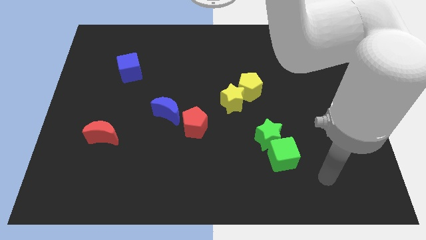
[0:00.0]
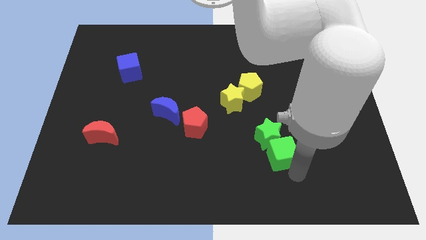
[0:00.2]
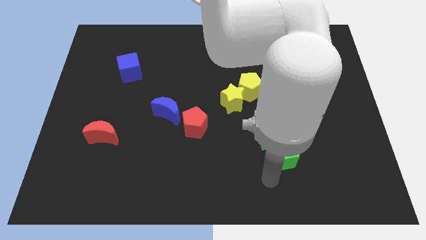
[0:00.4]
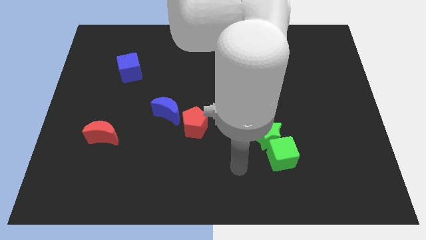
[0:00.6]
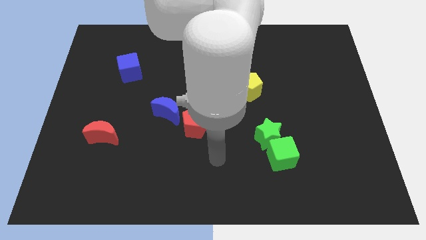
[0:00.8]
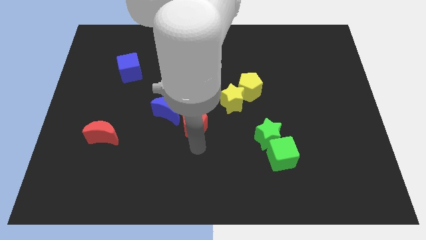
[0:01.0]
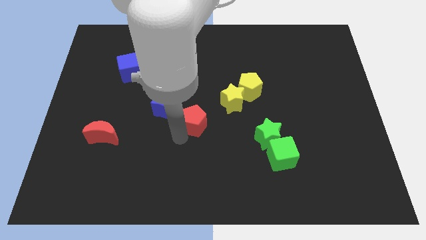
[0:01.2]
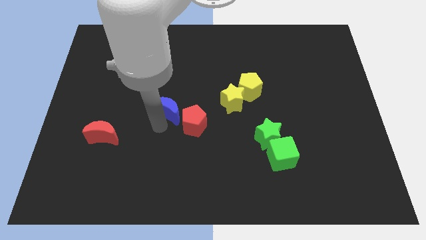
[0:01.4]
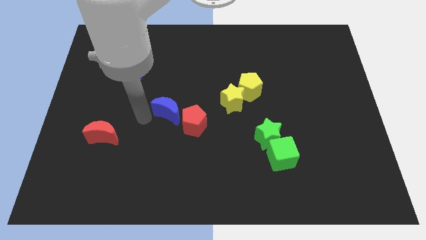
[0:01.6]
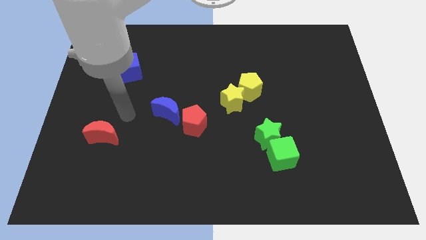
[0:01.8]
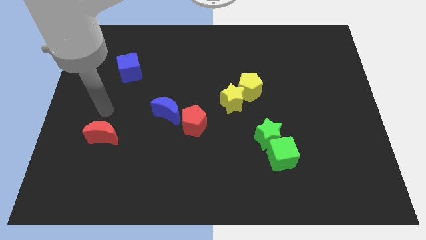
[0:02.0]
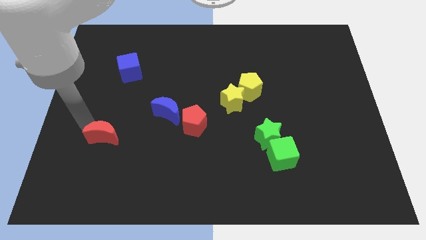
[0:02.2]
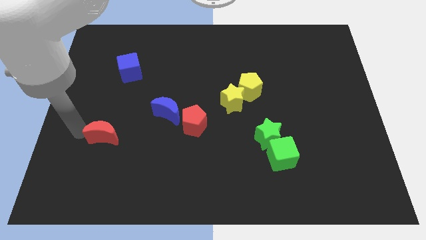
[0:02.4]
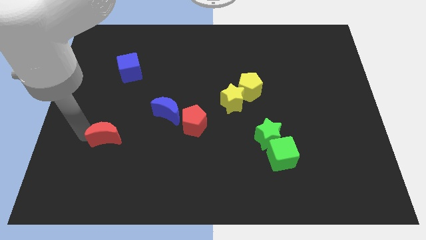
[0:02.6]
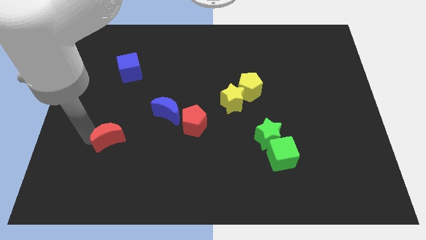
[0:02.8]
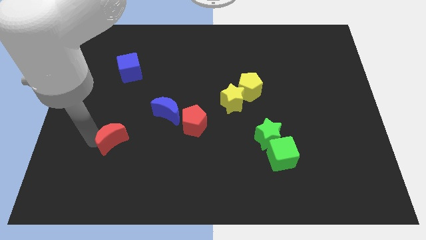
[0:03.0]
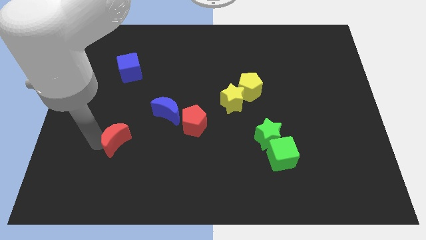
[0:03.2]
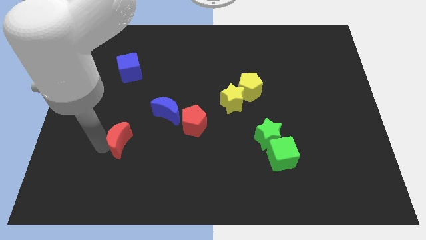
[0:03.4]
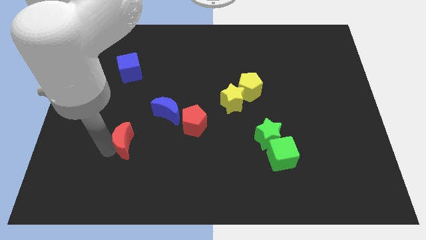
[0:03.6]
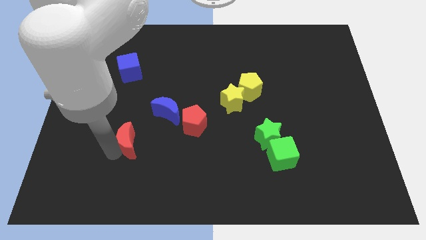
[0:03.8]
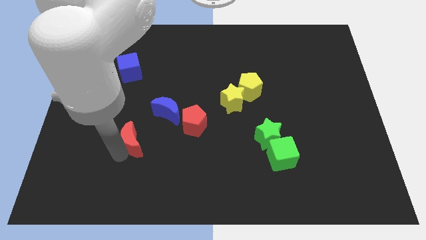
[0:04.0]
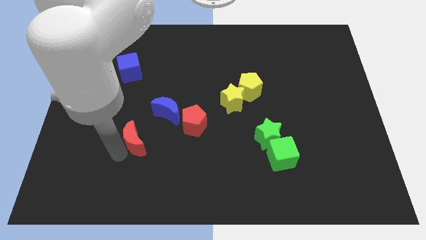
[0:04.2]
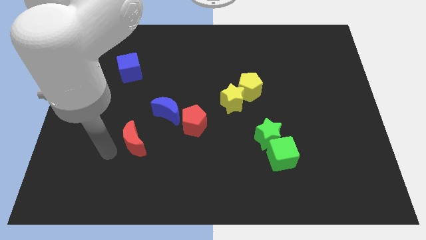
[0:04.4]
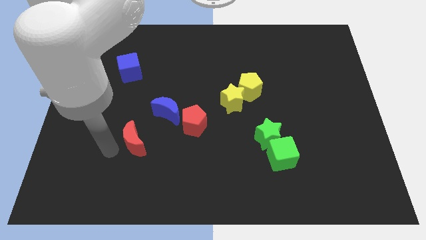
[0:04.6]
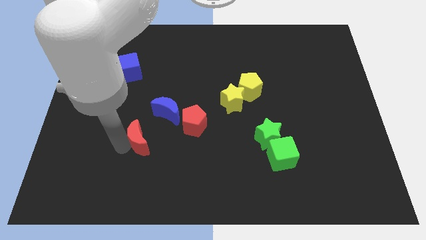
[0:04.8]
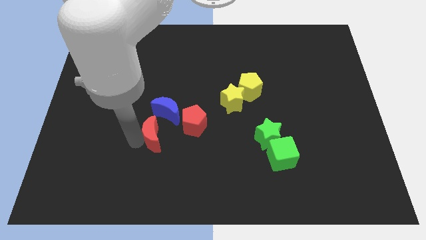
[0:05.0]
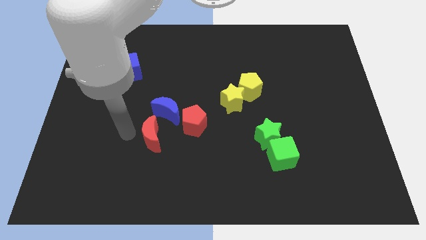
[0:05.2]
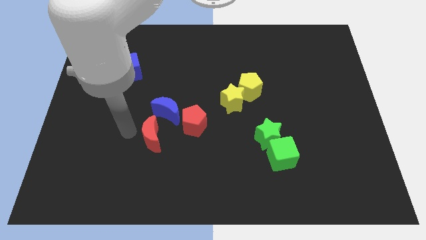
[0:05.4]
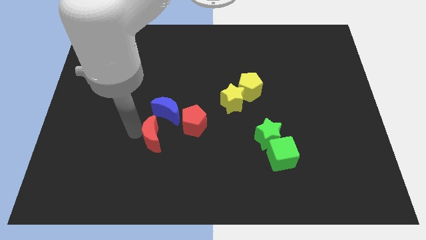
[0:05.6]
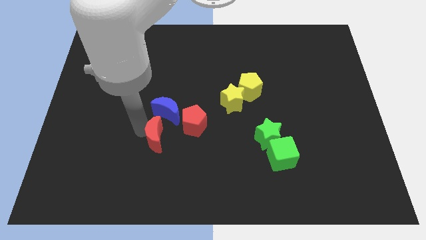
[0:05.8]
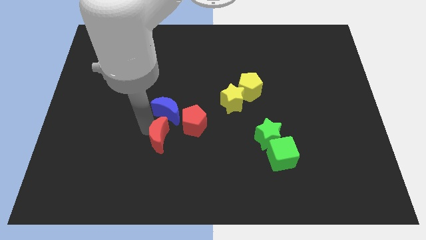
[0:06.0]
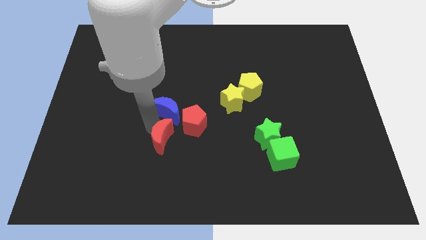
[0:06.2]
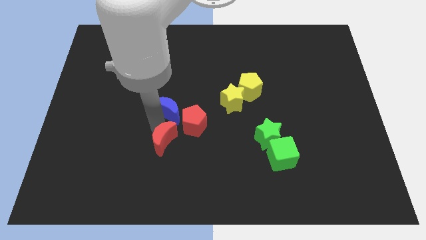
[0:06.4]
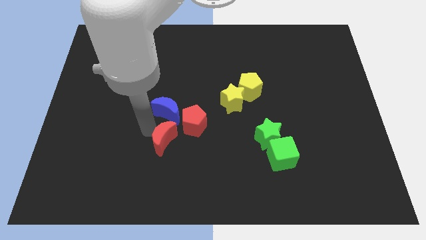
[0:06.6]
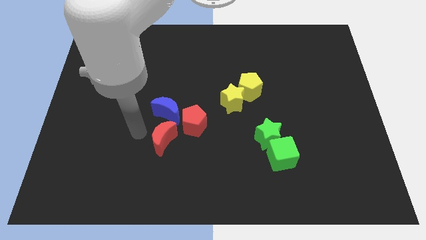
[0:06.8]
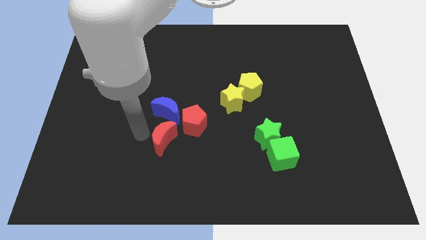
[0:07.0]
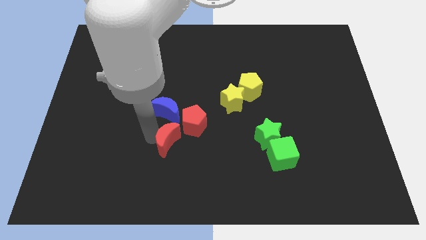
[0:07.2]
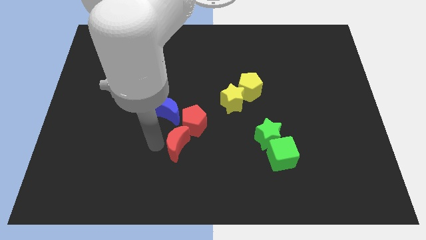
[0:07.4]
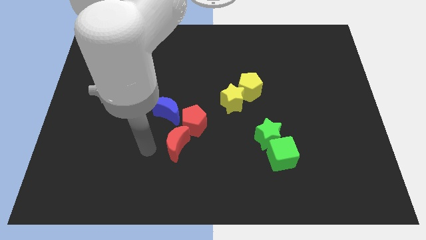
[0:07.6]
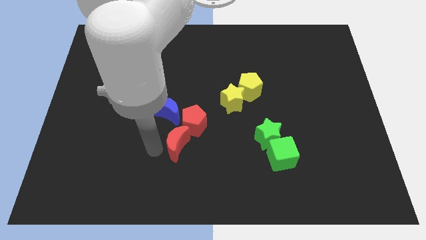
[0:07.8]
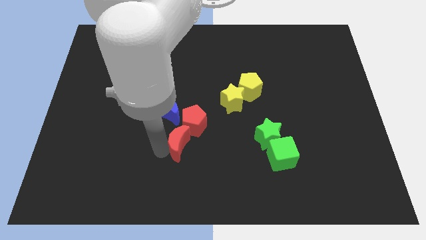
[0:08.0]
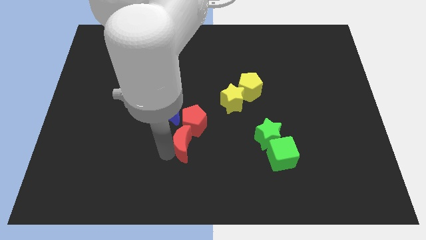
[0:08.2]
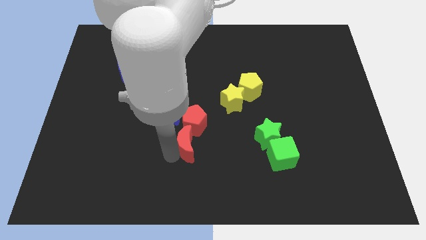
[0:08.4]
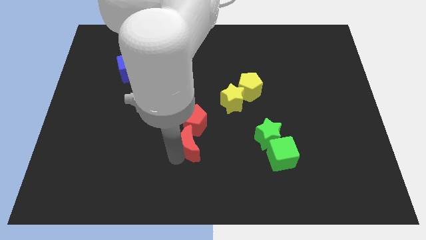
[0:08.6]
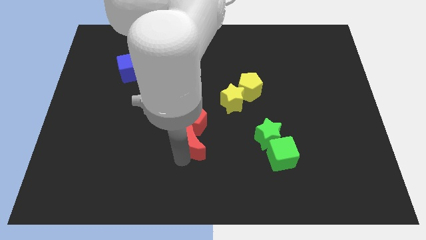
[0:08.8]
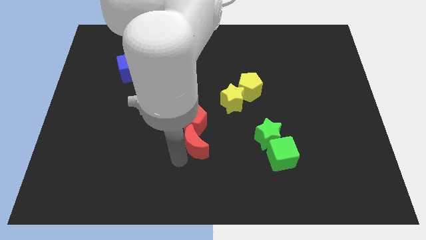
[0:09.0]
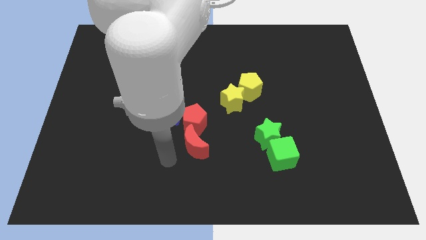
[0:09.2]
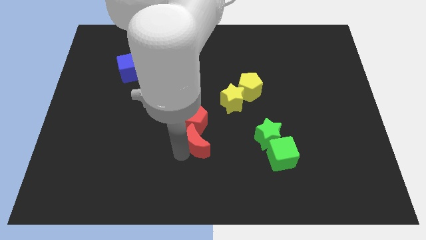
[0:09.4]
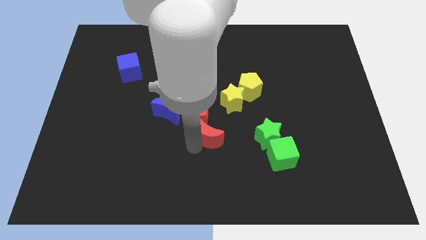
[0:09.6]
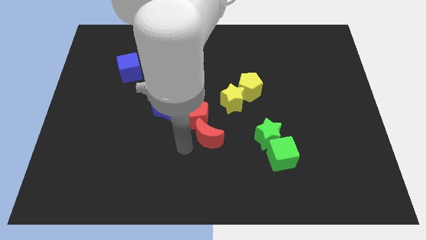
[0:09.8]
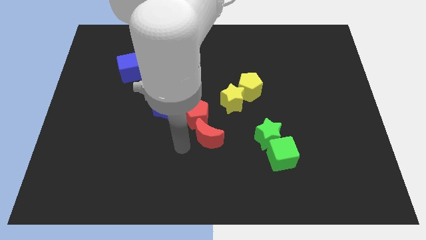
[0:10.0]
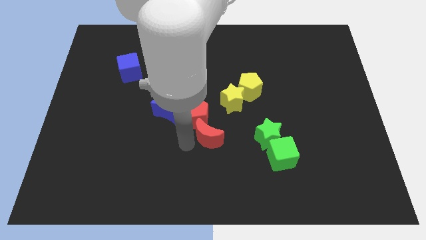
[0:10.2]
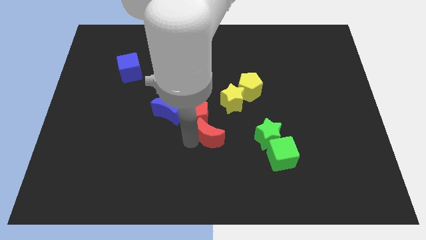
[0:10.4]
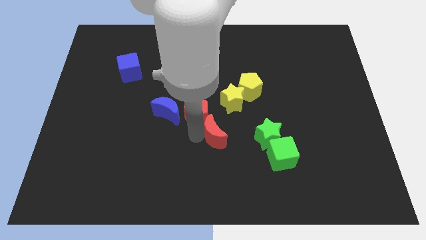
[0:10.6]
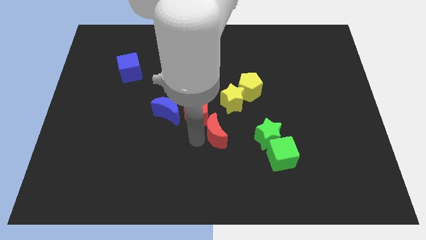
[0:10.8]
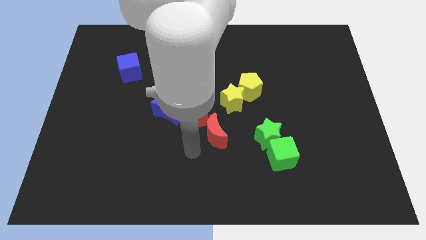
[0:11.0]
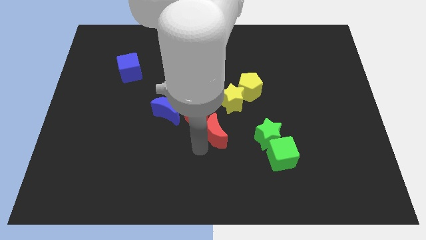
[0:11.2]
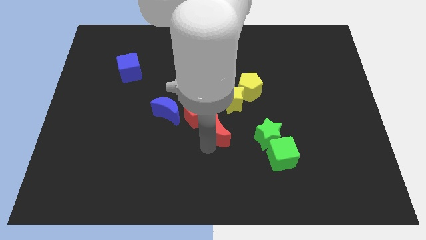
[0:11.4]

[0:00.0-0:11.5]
push the red moon just right of the red pentagon

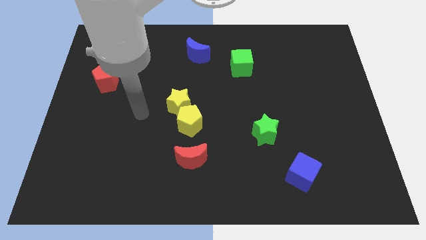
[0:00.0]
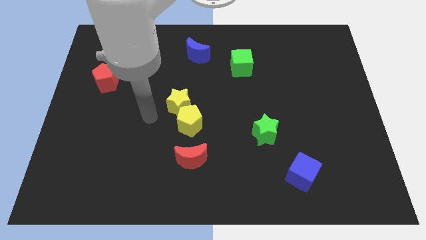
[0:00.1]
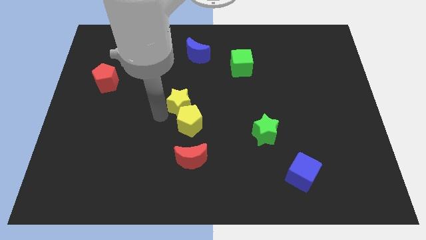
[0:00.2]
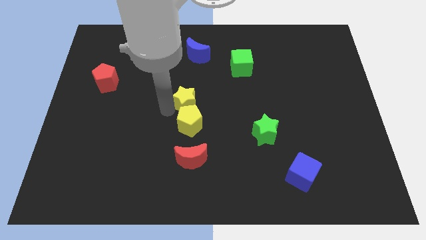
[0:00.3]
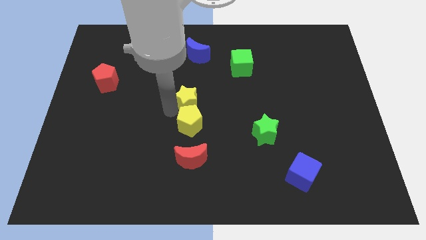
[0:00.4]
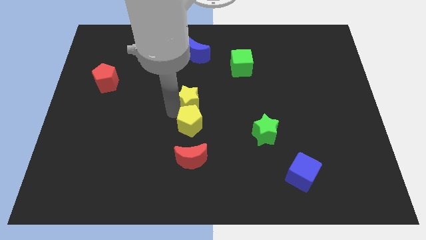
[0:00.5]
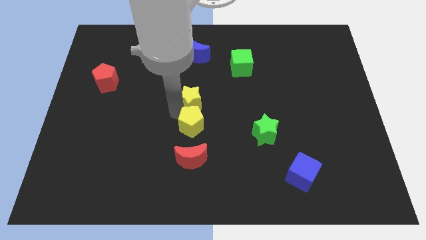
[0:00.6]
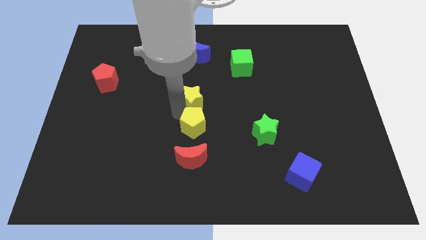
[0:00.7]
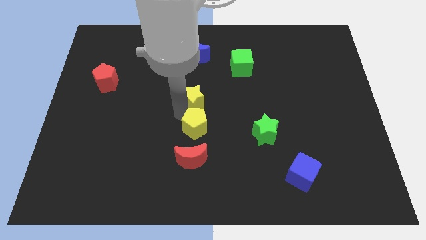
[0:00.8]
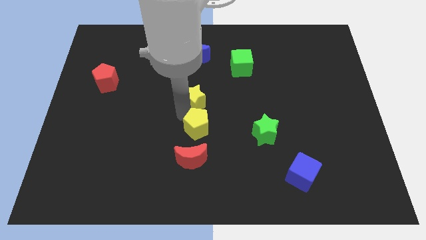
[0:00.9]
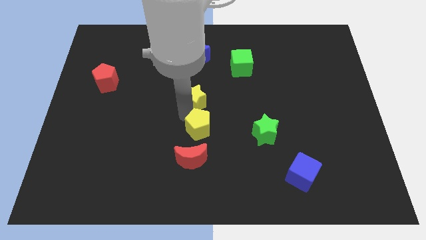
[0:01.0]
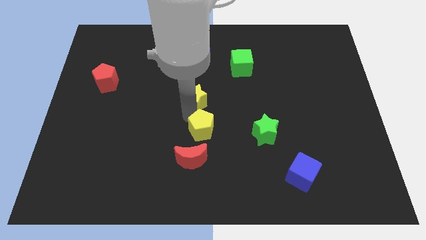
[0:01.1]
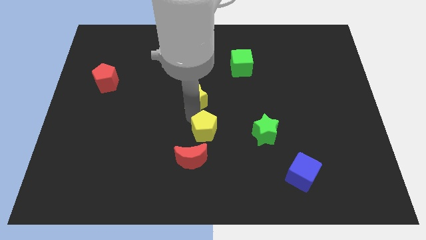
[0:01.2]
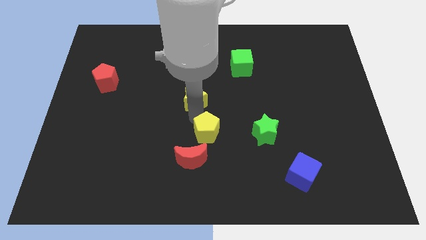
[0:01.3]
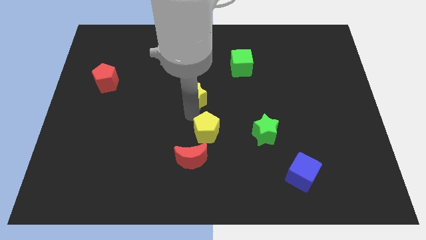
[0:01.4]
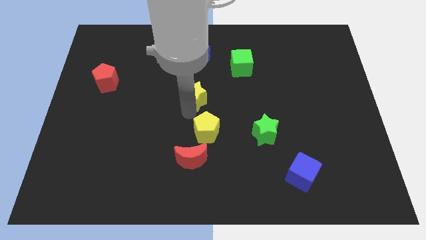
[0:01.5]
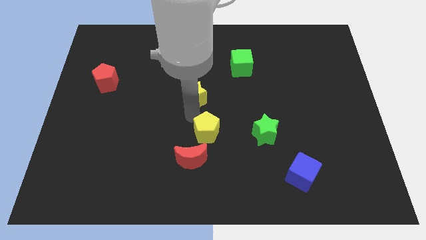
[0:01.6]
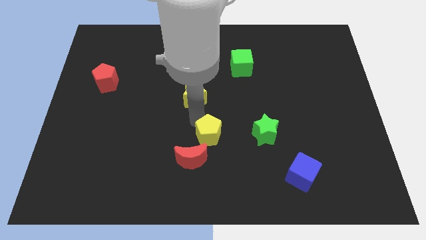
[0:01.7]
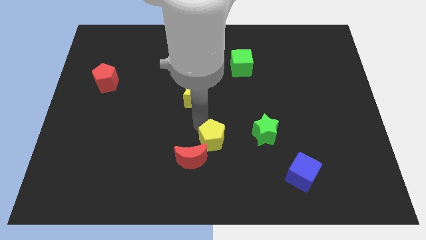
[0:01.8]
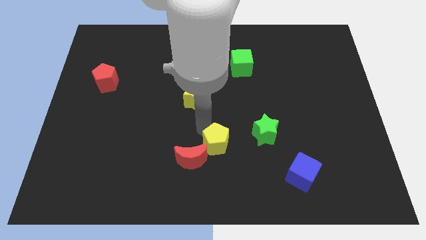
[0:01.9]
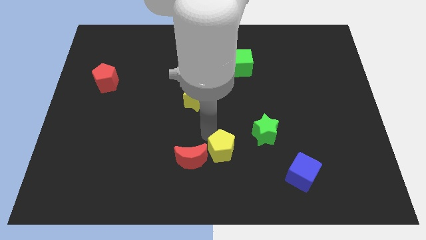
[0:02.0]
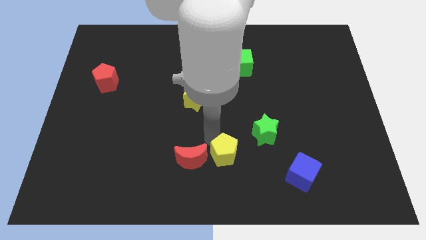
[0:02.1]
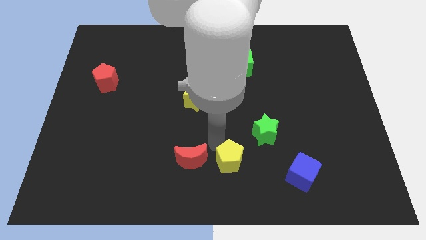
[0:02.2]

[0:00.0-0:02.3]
slide the yellow pentagon to the left of the blue cube
